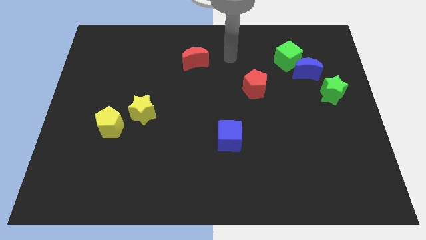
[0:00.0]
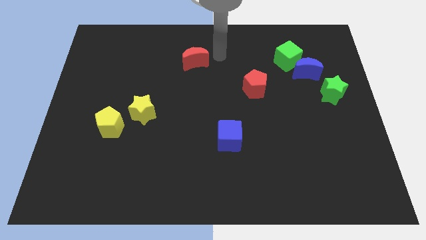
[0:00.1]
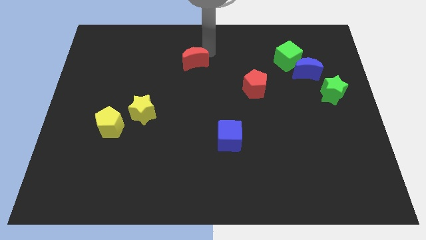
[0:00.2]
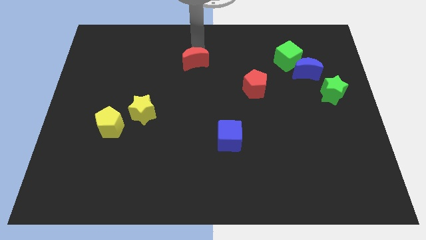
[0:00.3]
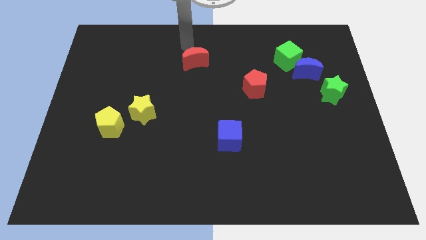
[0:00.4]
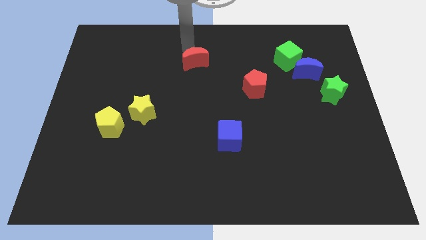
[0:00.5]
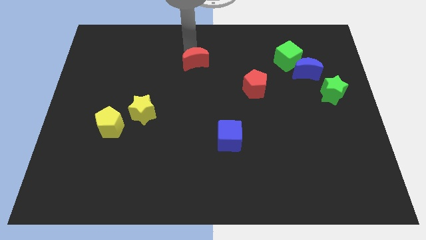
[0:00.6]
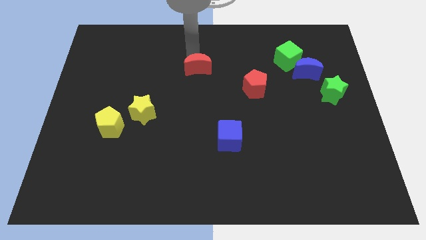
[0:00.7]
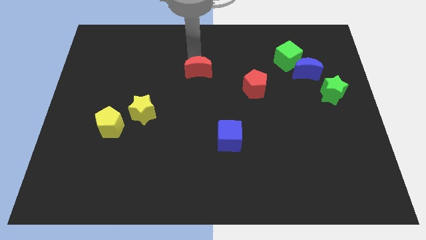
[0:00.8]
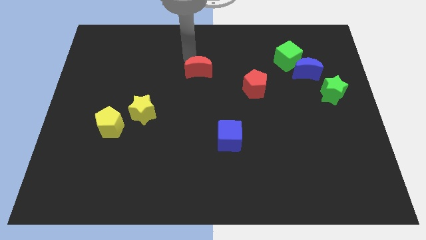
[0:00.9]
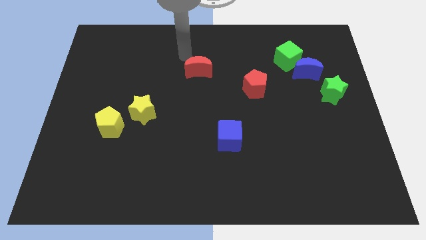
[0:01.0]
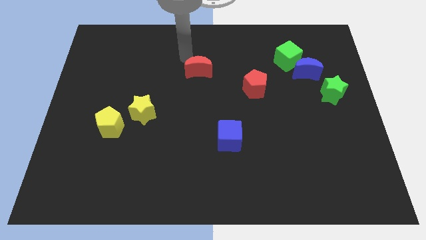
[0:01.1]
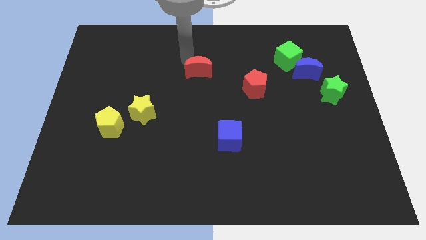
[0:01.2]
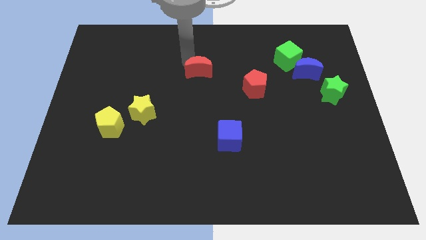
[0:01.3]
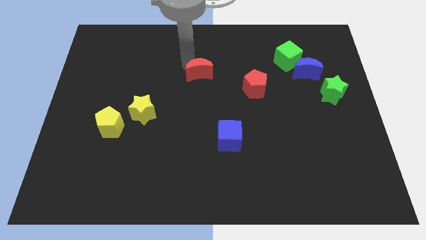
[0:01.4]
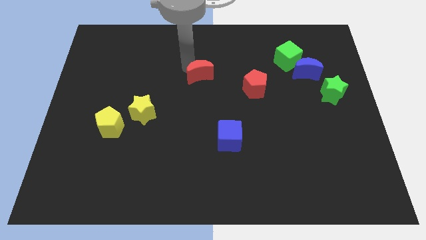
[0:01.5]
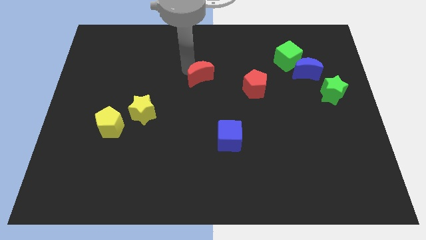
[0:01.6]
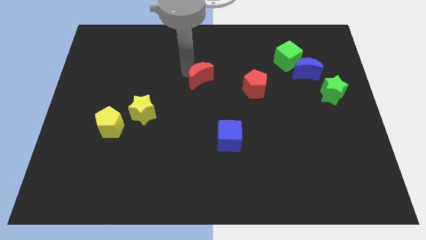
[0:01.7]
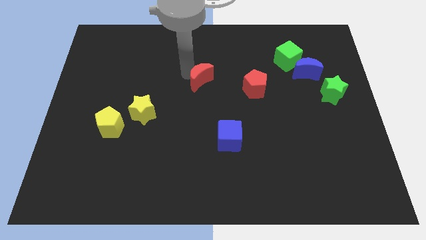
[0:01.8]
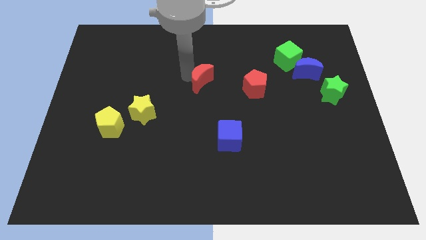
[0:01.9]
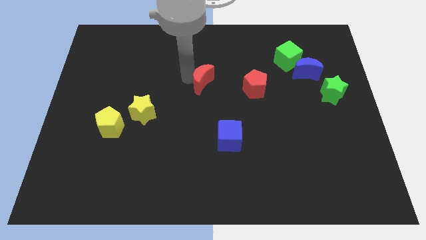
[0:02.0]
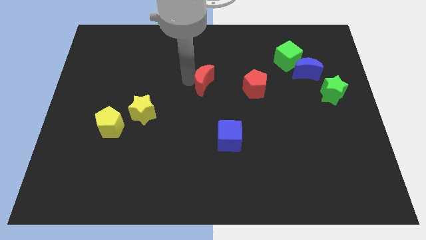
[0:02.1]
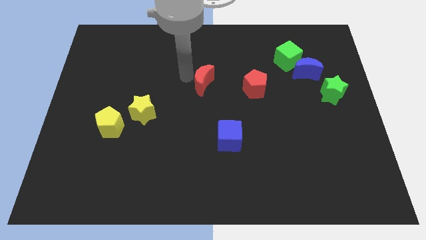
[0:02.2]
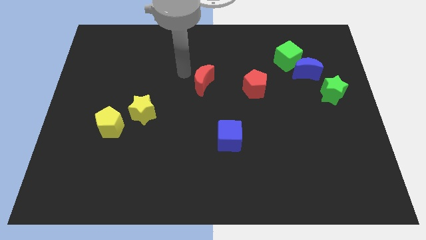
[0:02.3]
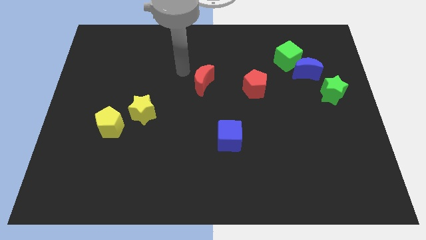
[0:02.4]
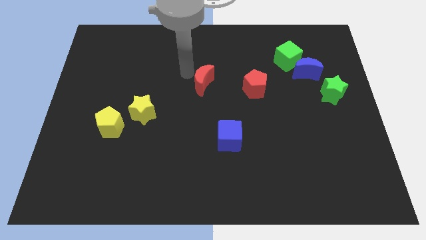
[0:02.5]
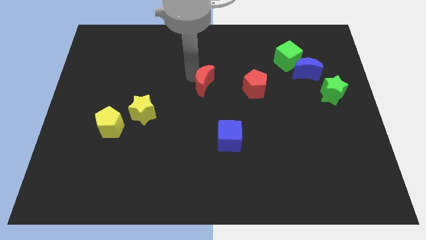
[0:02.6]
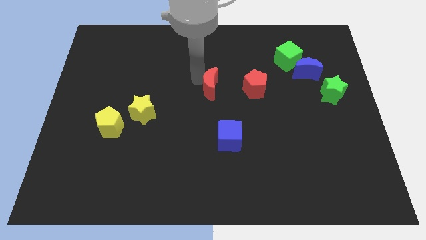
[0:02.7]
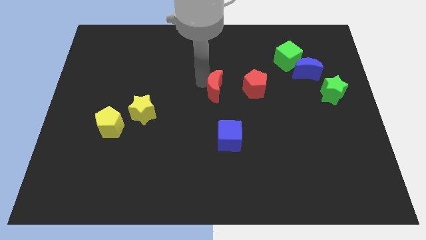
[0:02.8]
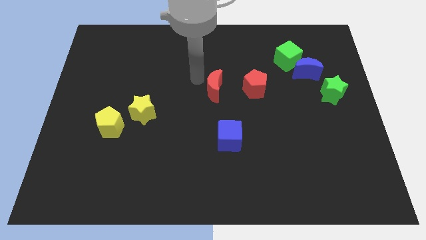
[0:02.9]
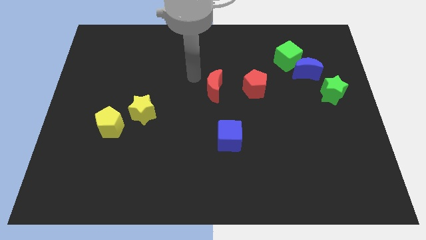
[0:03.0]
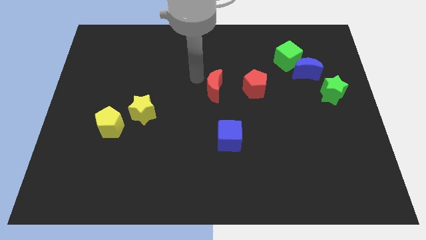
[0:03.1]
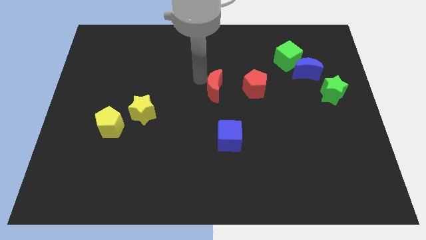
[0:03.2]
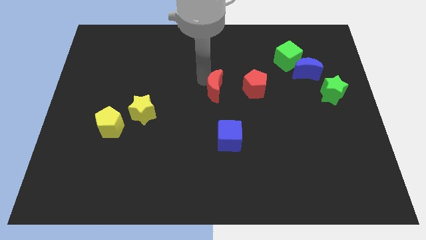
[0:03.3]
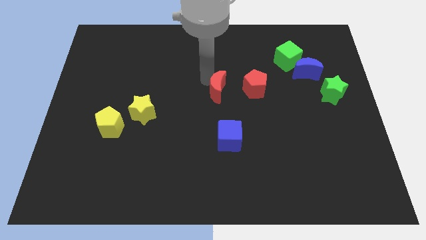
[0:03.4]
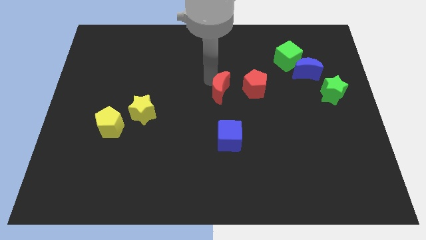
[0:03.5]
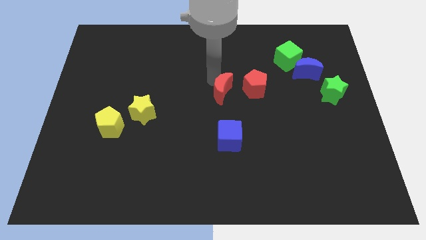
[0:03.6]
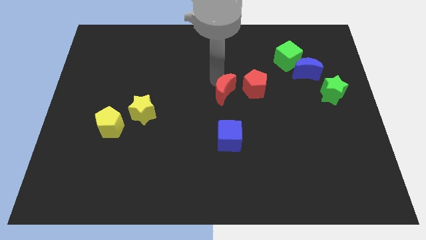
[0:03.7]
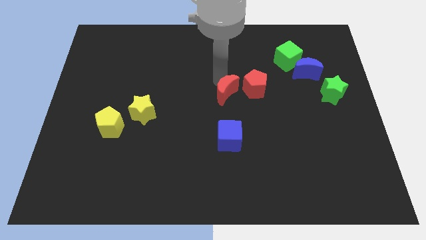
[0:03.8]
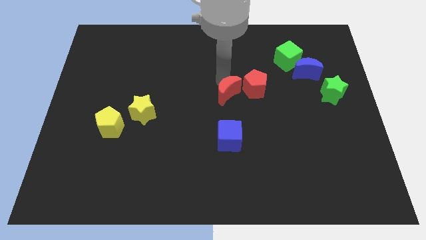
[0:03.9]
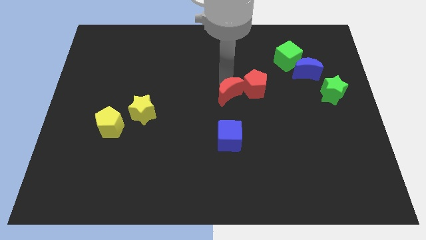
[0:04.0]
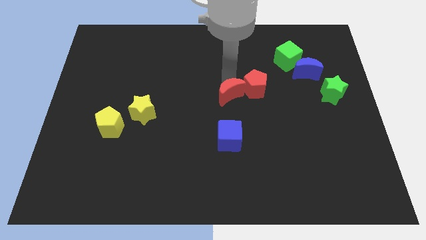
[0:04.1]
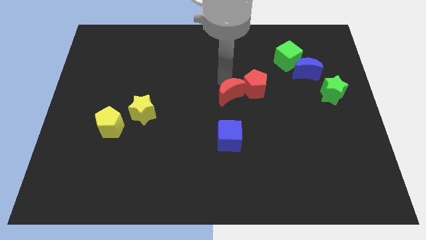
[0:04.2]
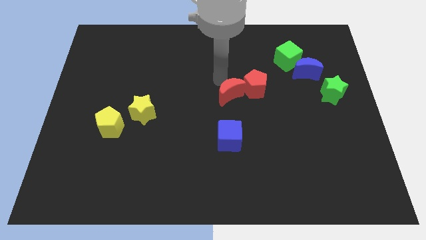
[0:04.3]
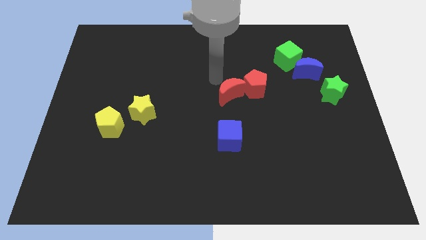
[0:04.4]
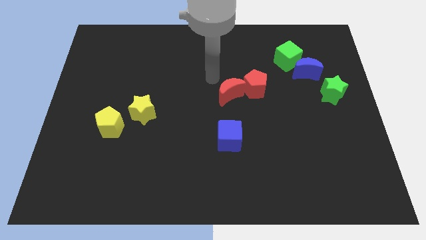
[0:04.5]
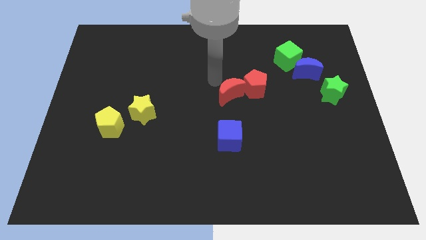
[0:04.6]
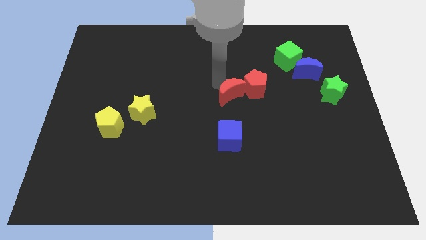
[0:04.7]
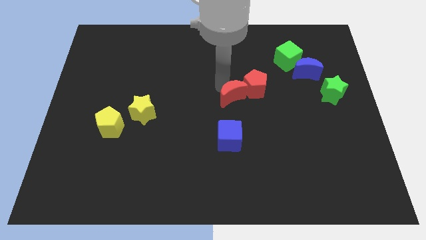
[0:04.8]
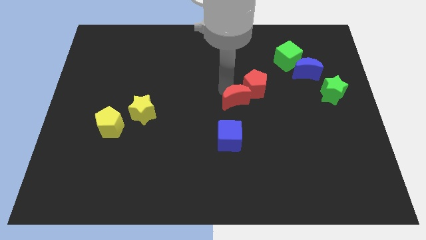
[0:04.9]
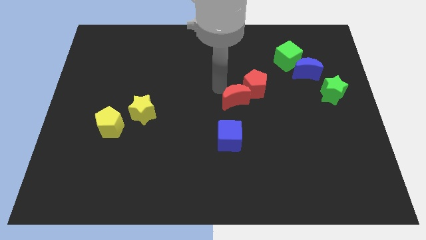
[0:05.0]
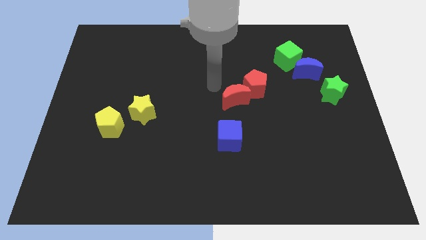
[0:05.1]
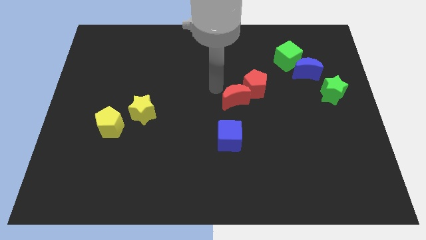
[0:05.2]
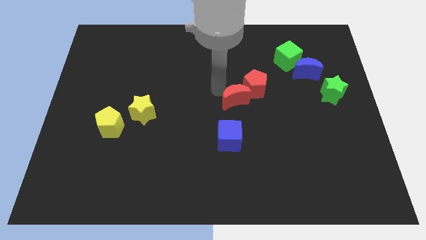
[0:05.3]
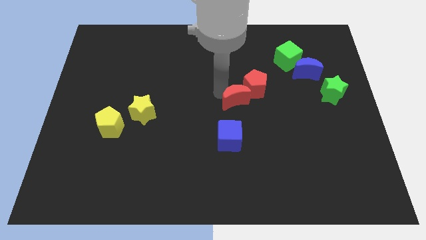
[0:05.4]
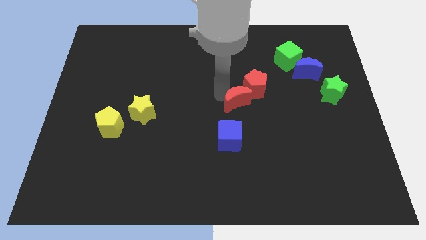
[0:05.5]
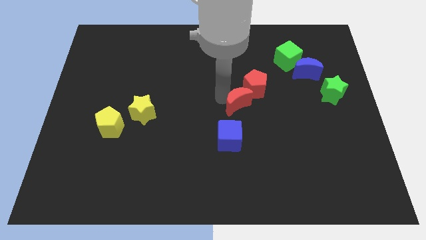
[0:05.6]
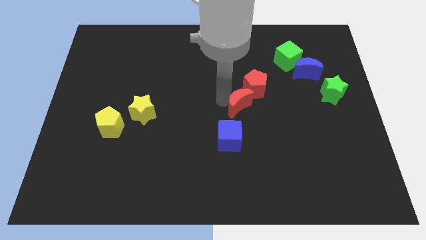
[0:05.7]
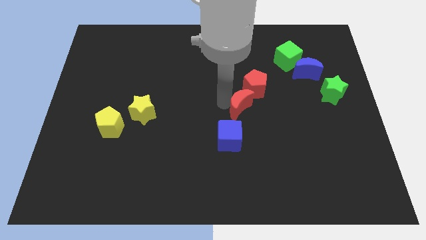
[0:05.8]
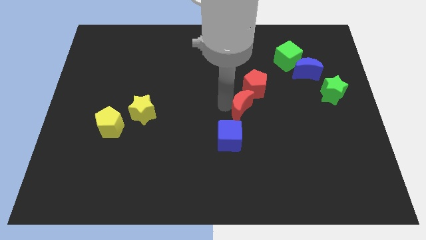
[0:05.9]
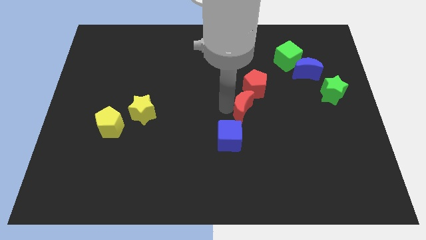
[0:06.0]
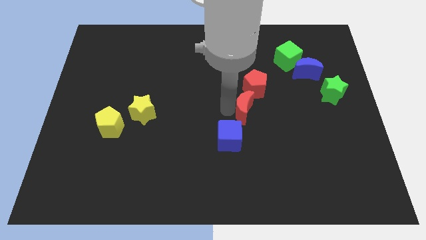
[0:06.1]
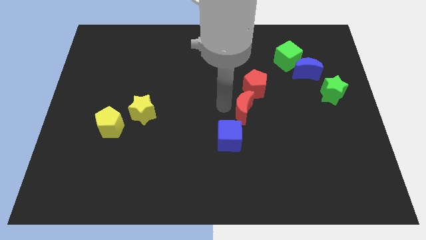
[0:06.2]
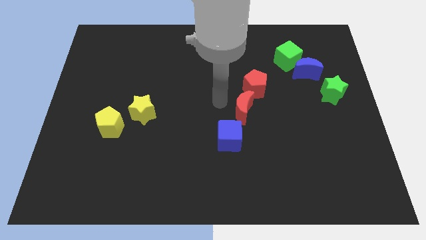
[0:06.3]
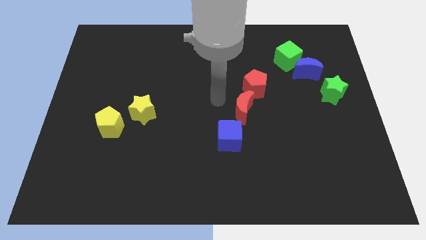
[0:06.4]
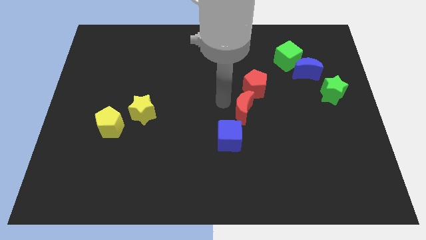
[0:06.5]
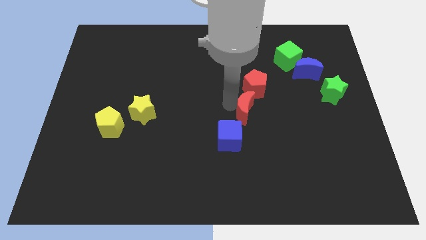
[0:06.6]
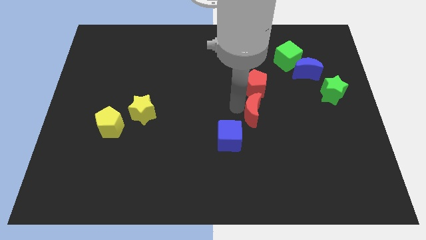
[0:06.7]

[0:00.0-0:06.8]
move the red moon diagonally downwards and to the right

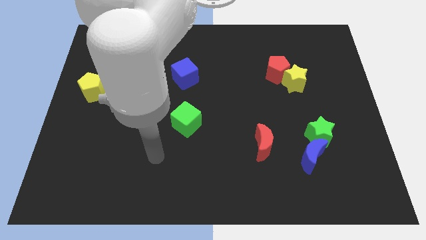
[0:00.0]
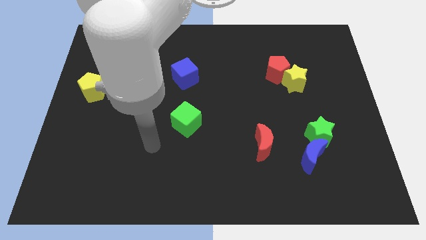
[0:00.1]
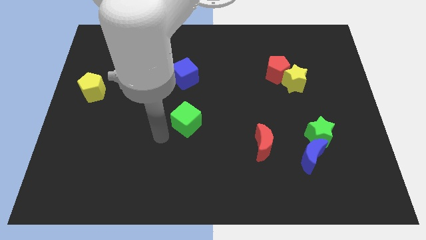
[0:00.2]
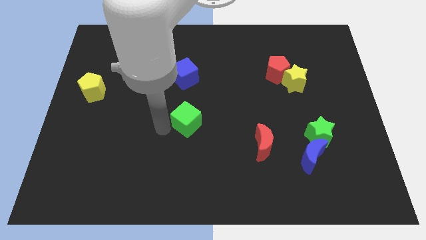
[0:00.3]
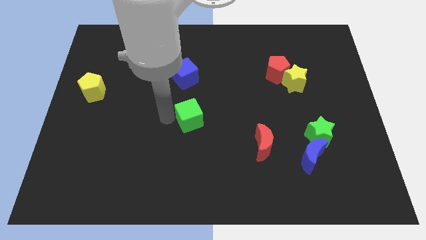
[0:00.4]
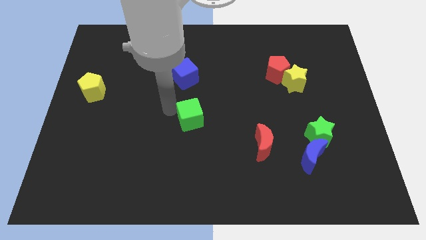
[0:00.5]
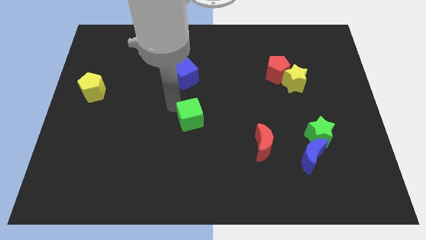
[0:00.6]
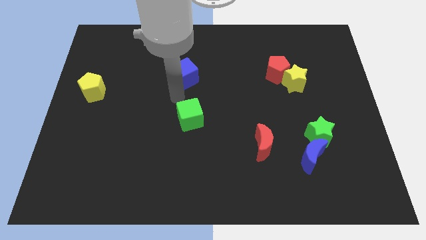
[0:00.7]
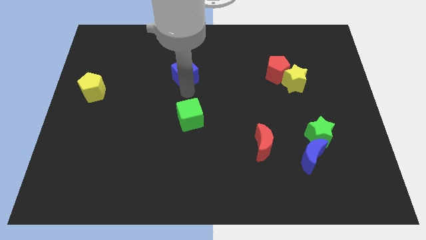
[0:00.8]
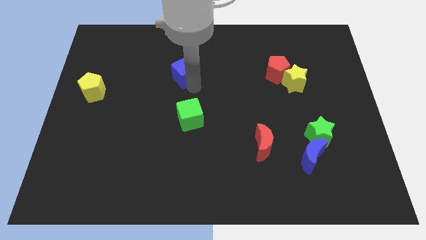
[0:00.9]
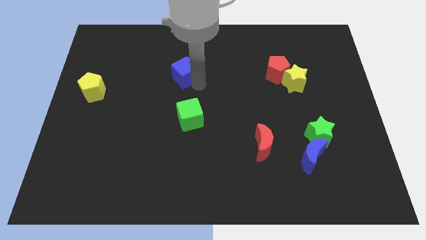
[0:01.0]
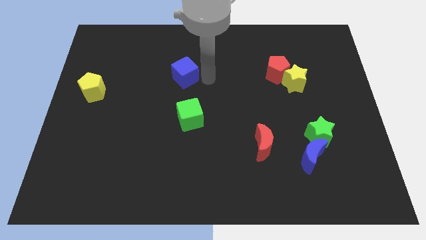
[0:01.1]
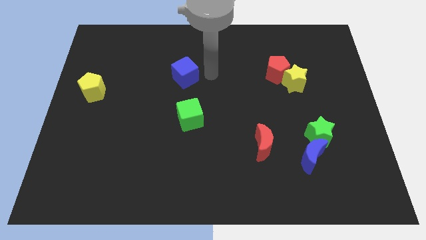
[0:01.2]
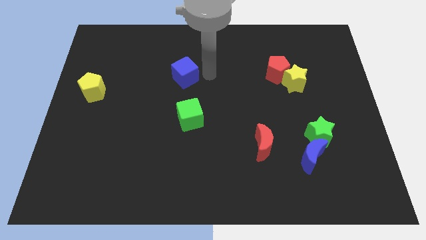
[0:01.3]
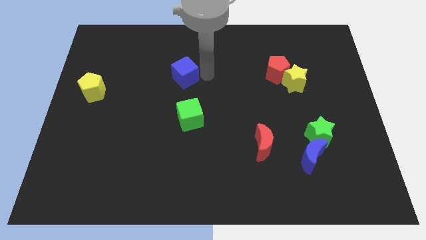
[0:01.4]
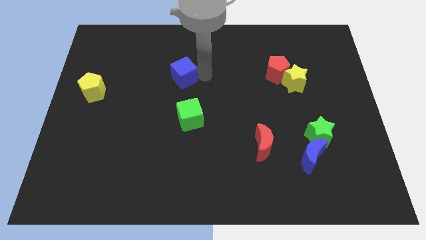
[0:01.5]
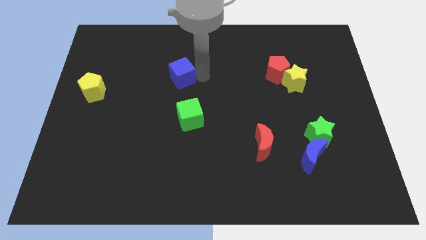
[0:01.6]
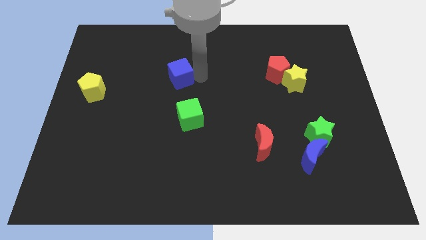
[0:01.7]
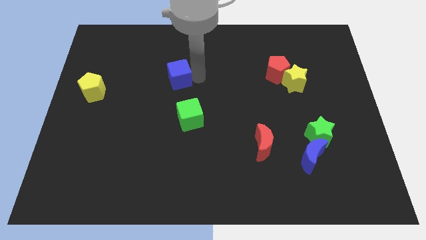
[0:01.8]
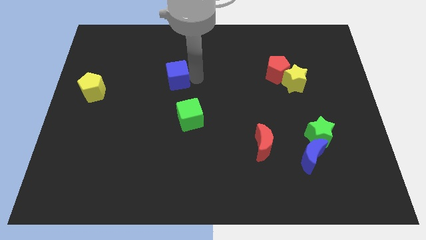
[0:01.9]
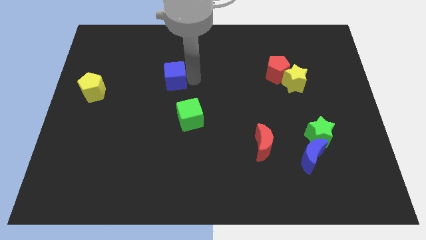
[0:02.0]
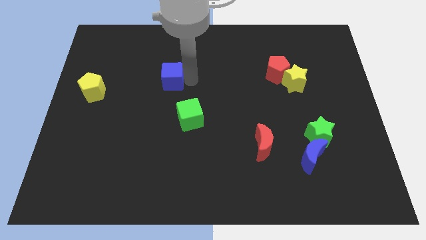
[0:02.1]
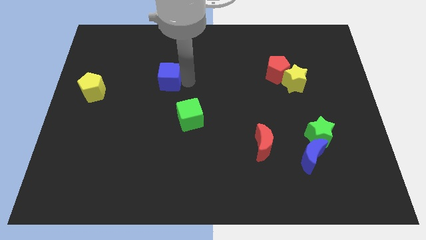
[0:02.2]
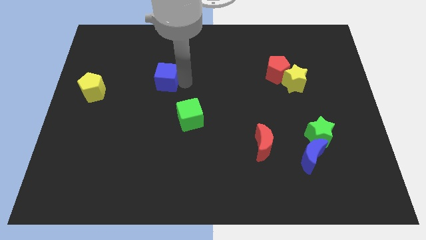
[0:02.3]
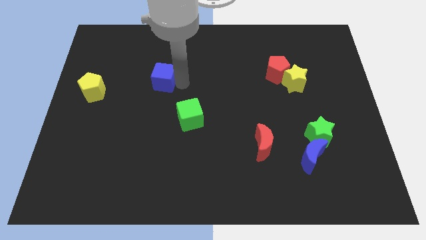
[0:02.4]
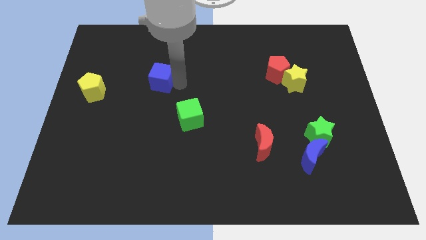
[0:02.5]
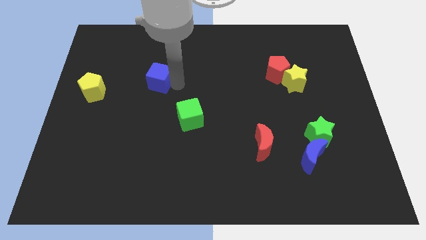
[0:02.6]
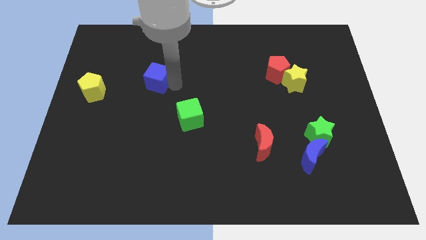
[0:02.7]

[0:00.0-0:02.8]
slide the blue cube a little left
